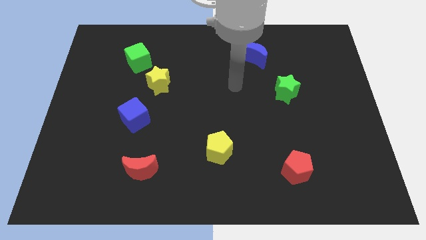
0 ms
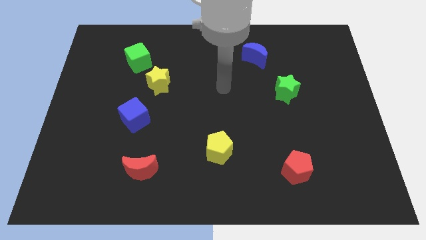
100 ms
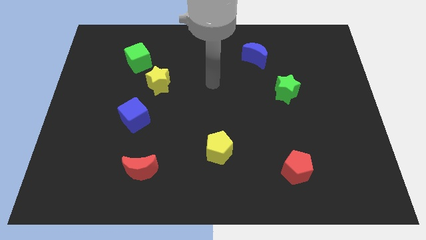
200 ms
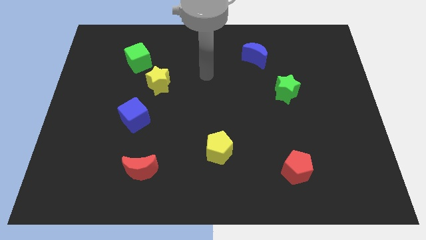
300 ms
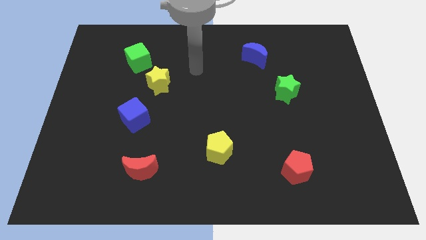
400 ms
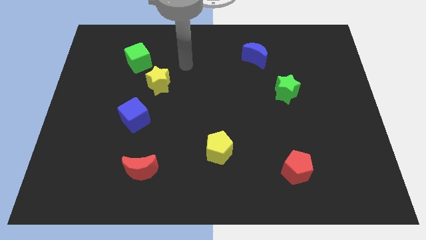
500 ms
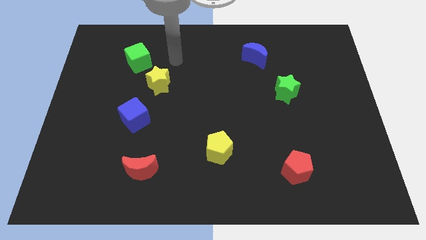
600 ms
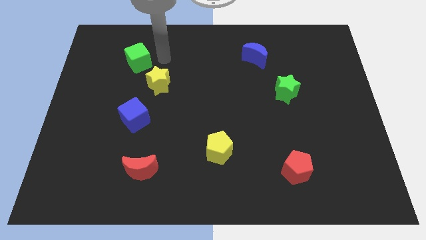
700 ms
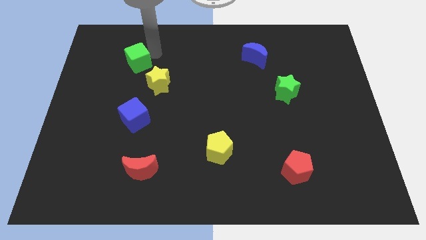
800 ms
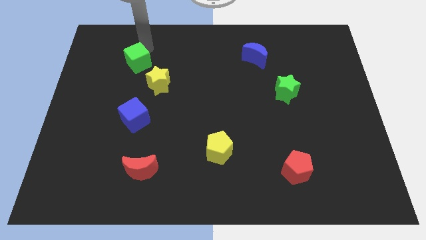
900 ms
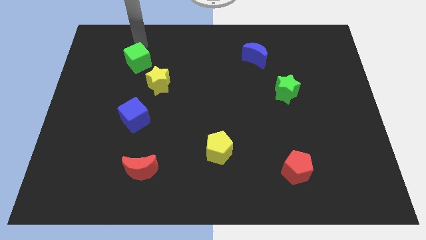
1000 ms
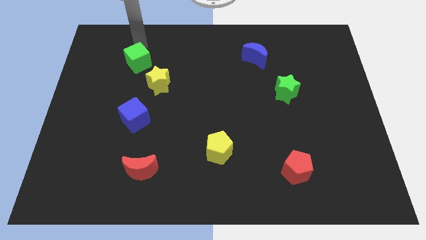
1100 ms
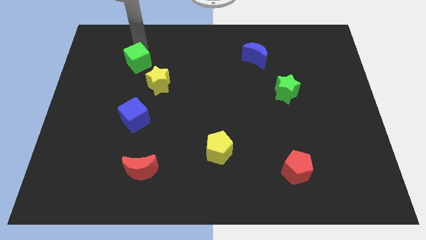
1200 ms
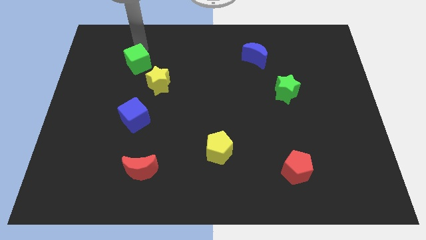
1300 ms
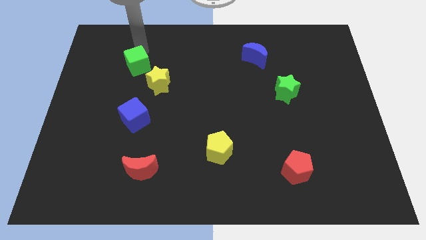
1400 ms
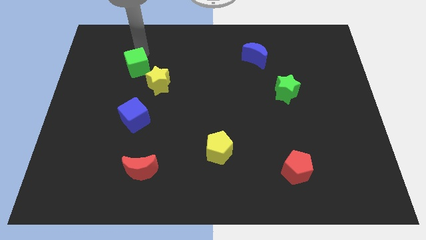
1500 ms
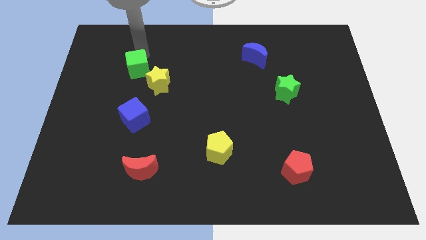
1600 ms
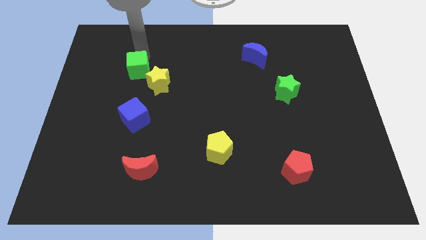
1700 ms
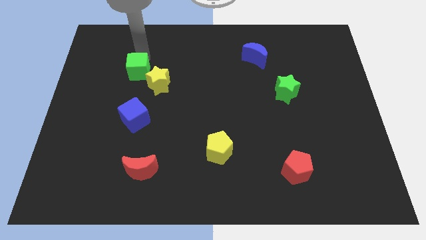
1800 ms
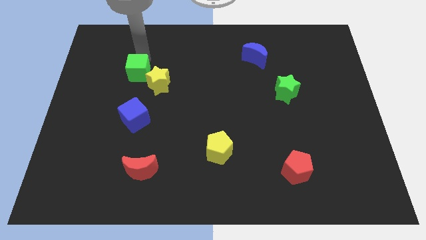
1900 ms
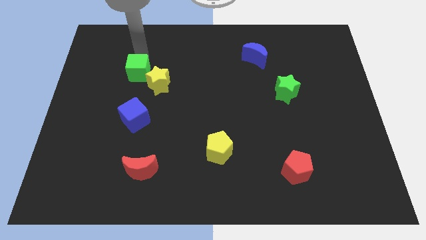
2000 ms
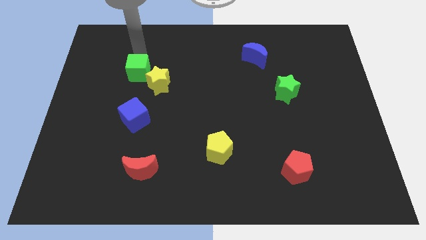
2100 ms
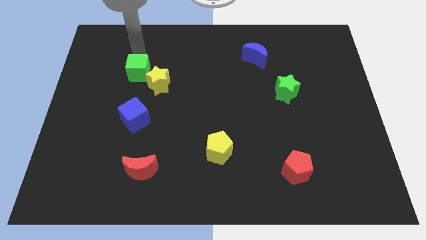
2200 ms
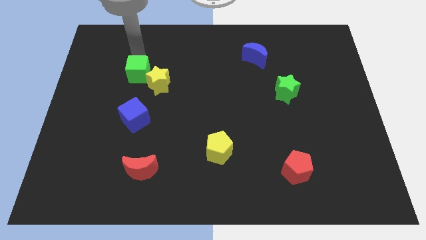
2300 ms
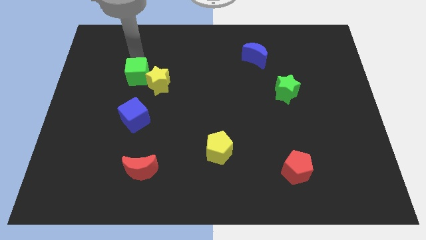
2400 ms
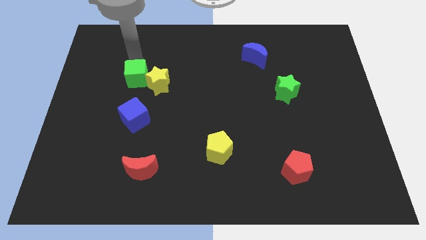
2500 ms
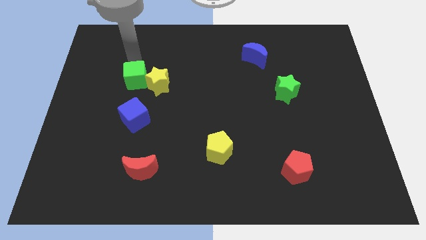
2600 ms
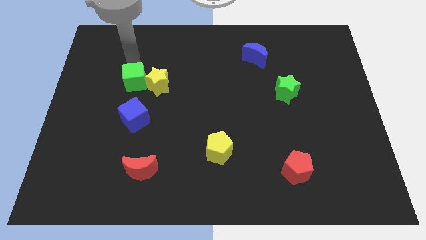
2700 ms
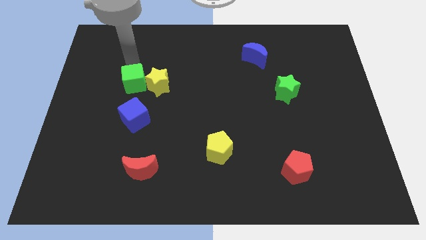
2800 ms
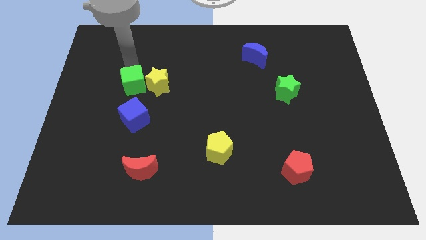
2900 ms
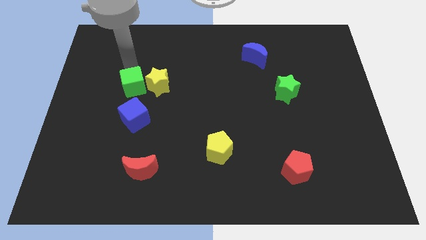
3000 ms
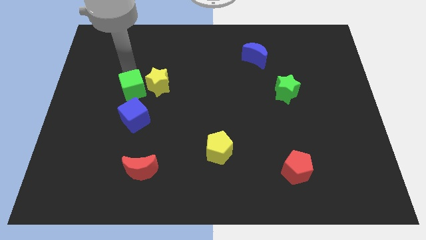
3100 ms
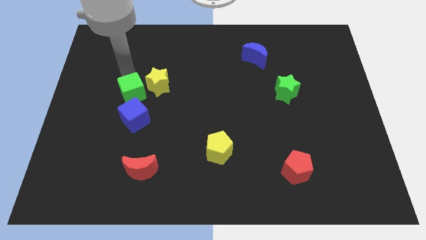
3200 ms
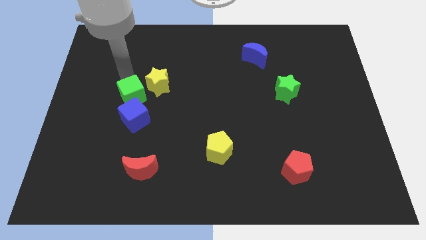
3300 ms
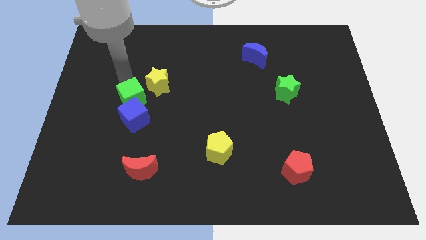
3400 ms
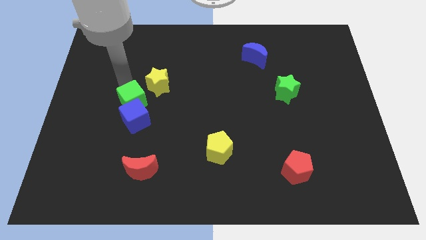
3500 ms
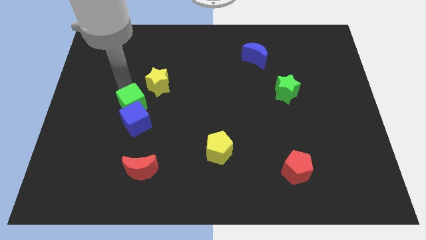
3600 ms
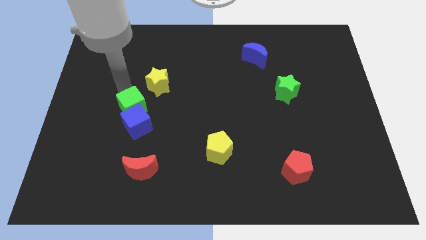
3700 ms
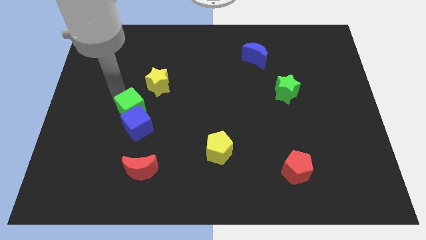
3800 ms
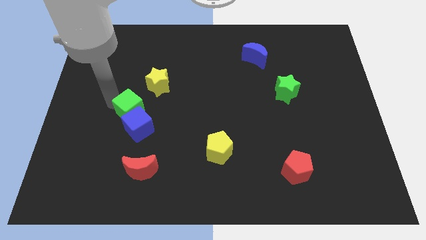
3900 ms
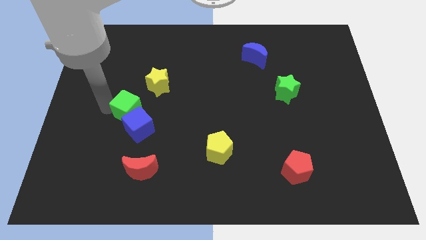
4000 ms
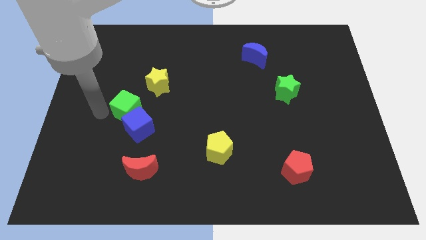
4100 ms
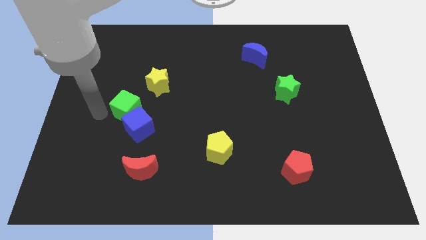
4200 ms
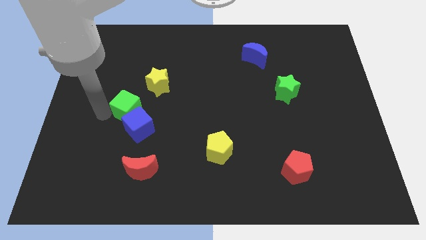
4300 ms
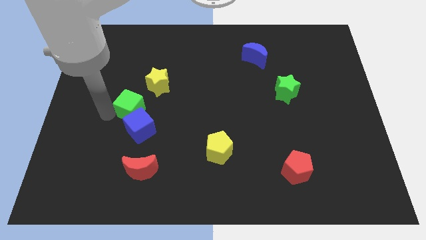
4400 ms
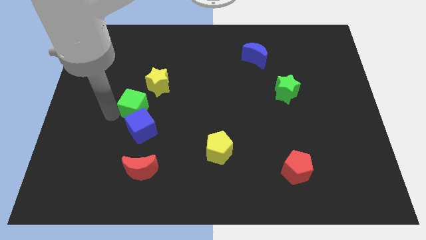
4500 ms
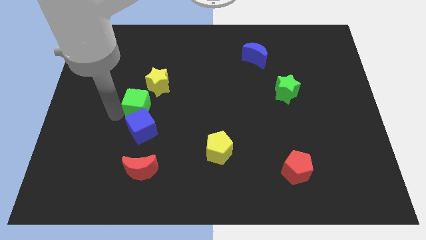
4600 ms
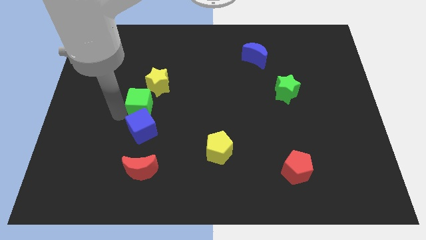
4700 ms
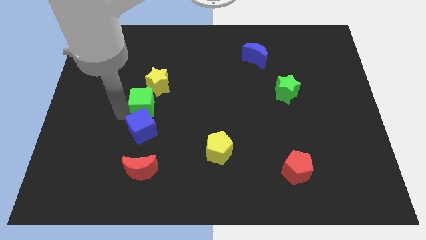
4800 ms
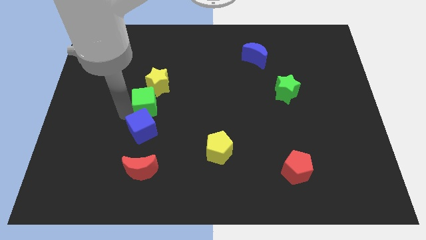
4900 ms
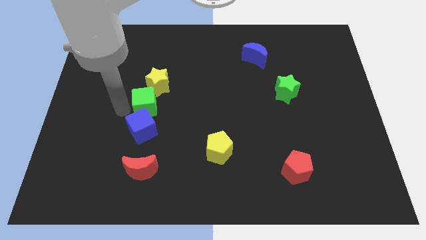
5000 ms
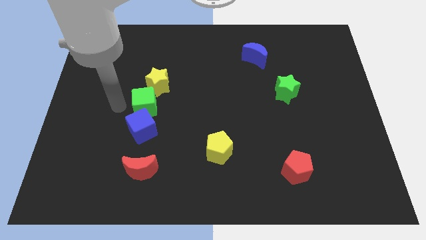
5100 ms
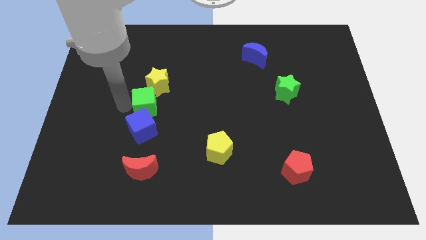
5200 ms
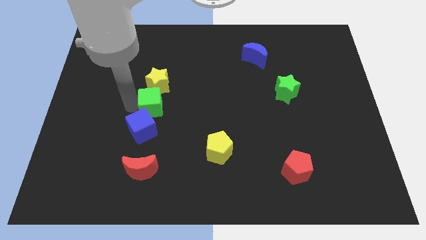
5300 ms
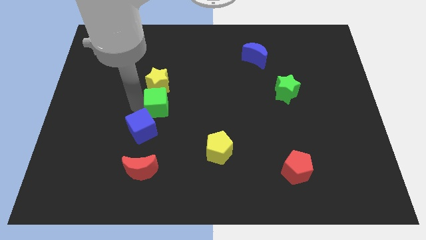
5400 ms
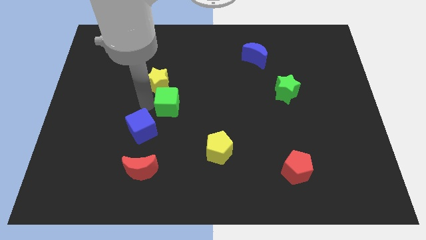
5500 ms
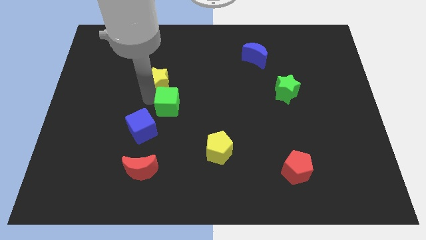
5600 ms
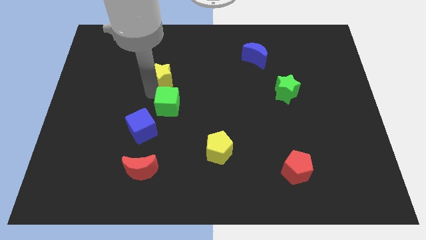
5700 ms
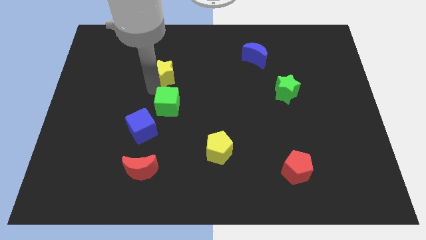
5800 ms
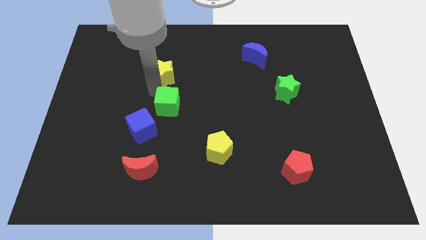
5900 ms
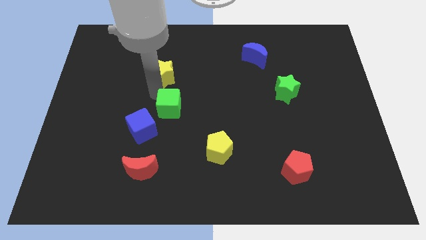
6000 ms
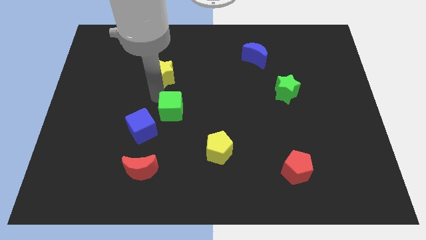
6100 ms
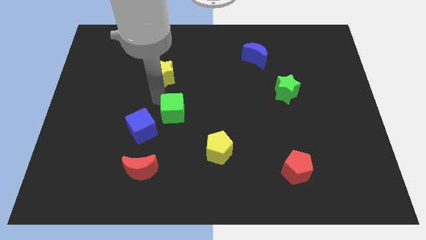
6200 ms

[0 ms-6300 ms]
move the green cube just right of the blue cube

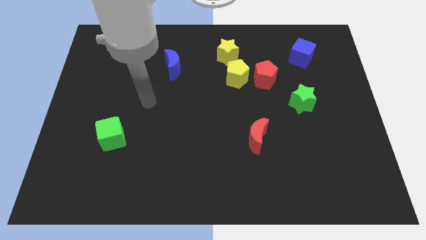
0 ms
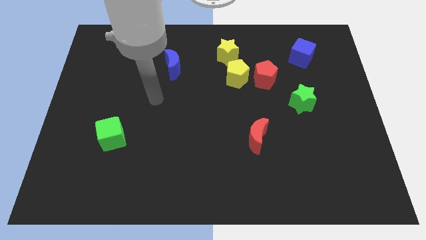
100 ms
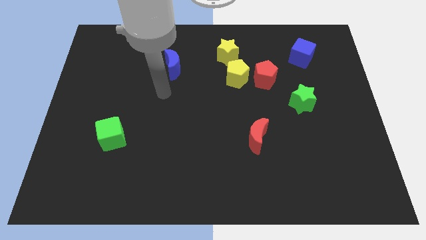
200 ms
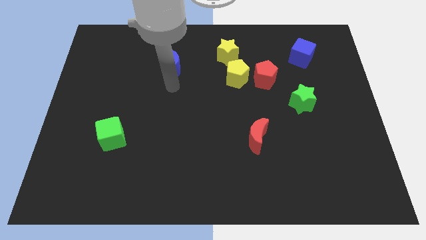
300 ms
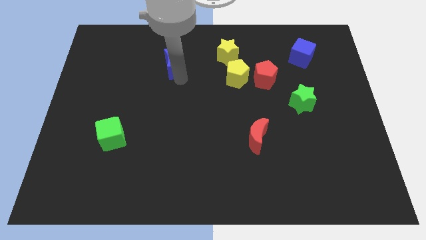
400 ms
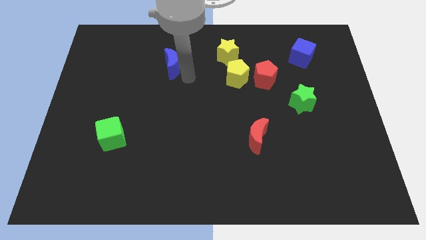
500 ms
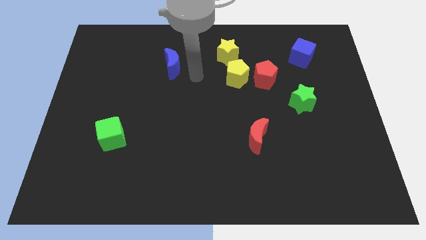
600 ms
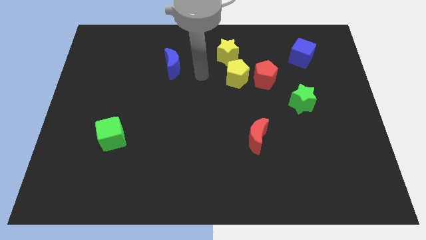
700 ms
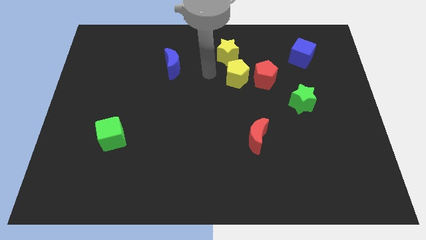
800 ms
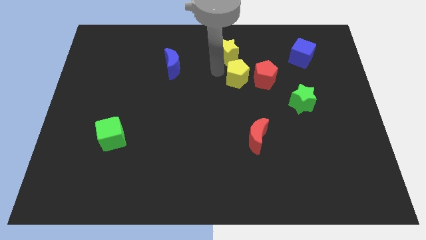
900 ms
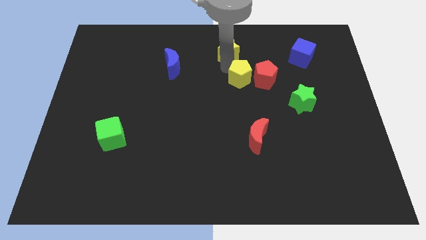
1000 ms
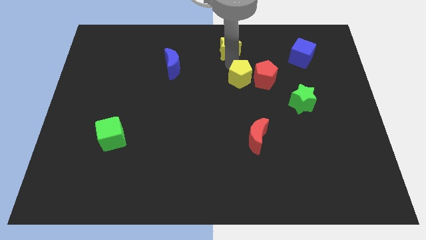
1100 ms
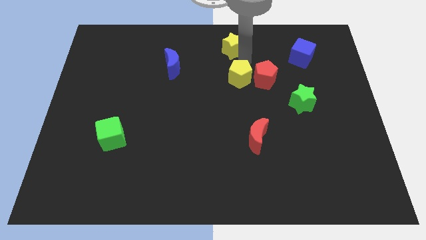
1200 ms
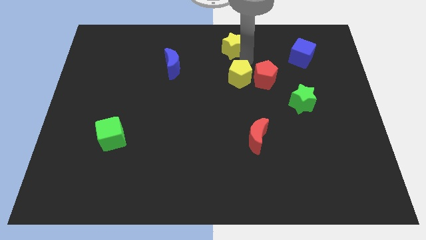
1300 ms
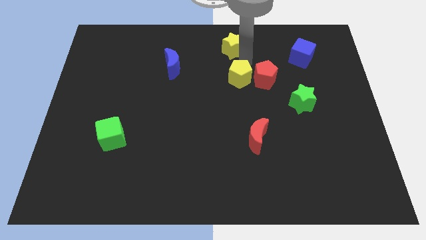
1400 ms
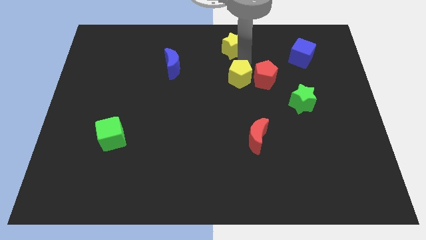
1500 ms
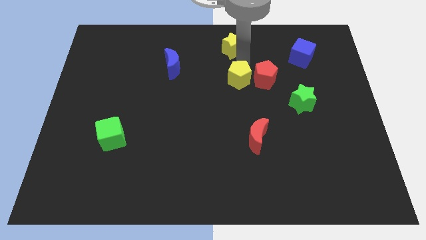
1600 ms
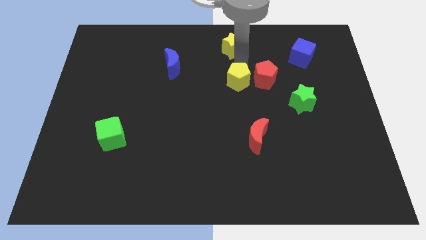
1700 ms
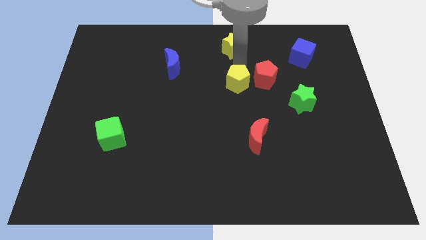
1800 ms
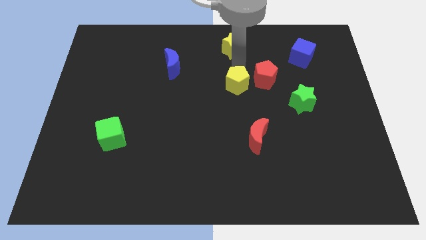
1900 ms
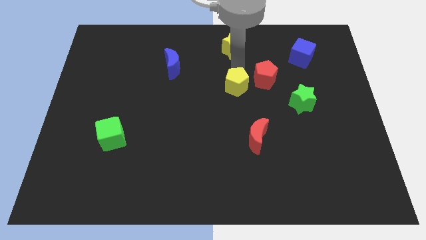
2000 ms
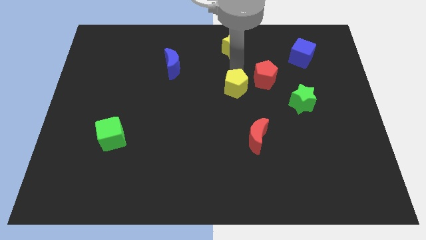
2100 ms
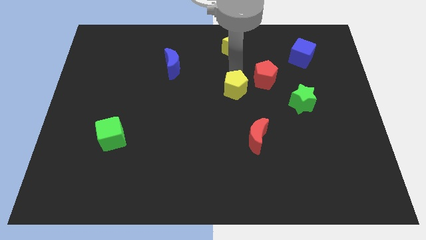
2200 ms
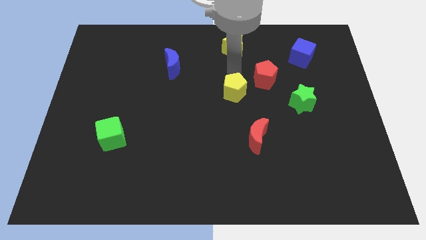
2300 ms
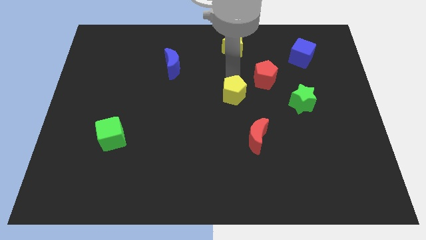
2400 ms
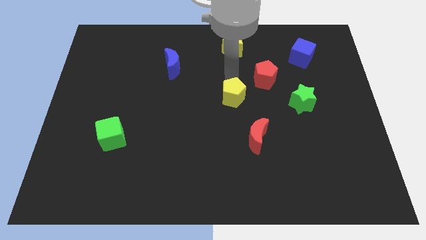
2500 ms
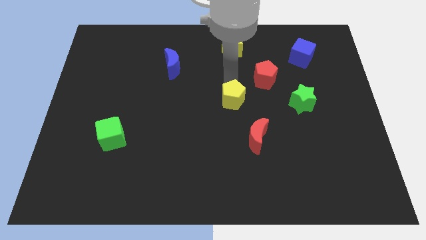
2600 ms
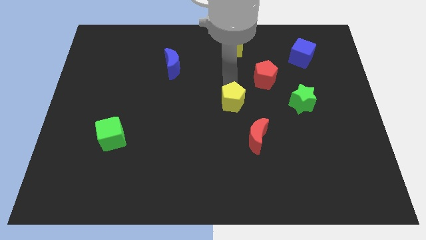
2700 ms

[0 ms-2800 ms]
move the yellow pentagon to the top left of the red moon
